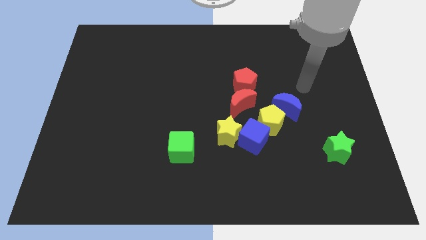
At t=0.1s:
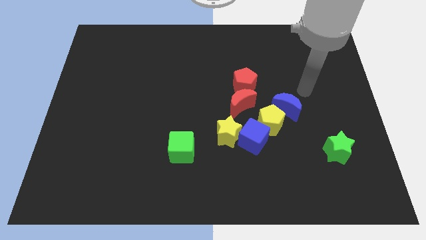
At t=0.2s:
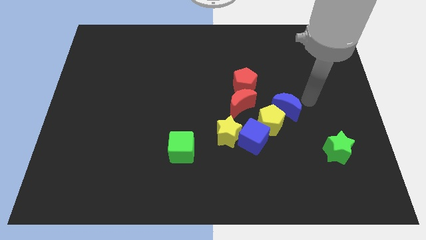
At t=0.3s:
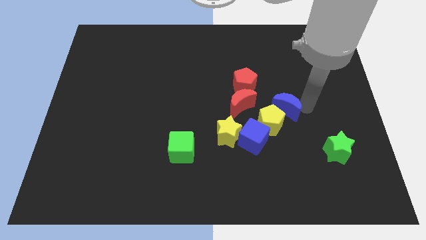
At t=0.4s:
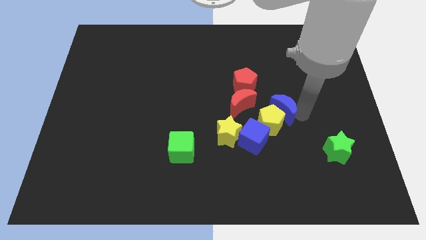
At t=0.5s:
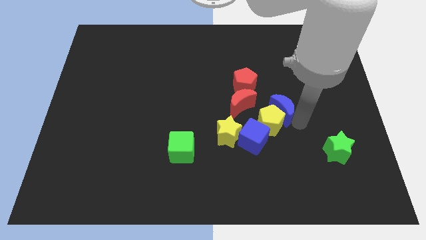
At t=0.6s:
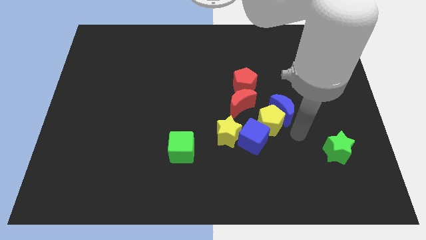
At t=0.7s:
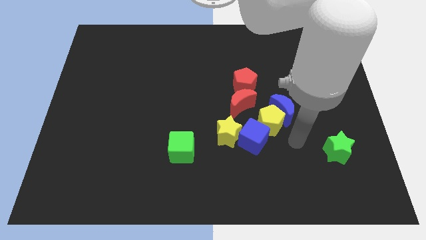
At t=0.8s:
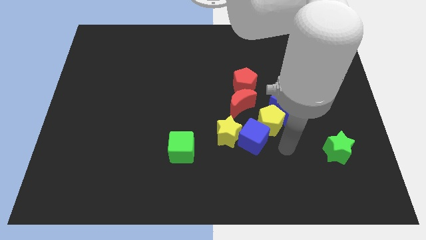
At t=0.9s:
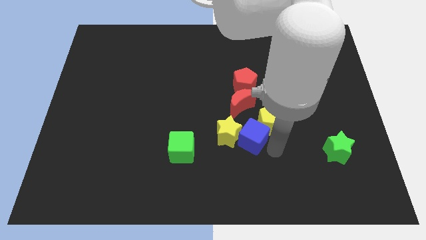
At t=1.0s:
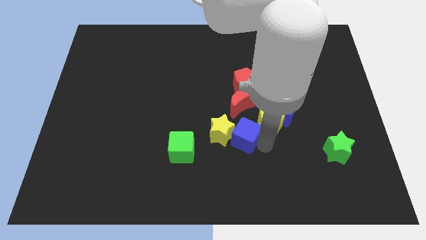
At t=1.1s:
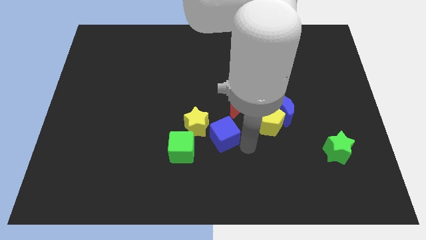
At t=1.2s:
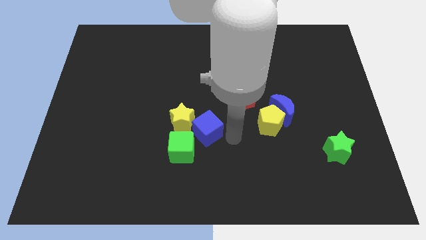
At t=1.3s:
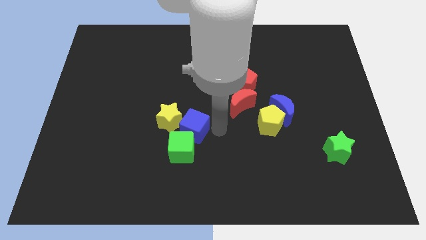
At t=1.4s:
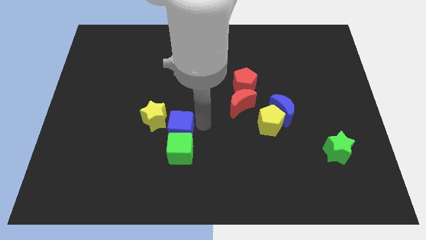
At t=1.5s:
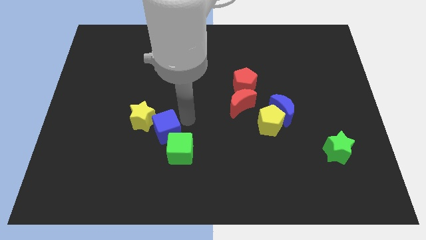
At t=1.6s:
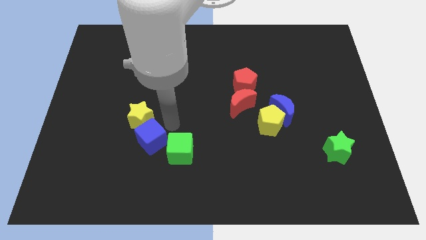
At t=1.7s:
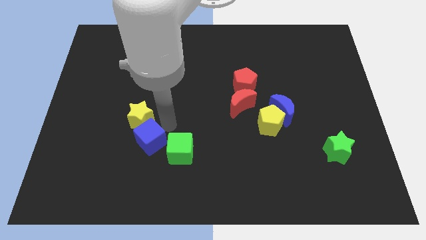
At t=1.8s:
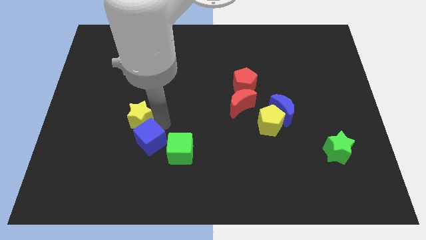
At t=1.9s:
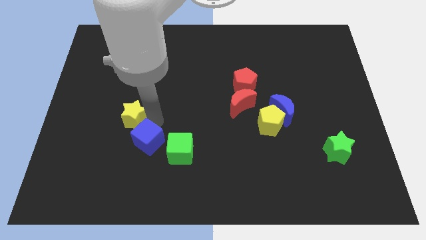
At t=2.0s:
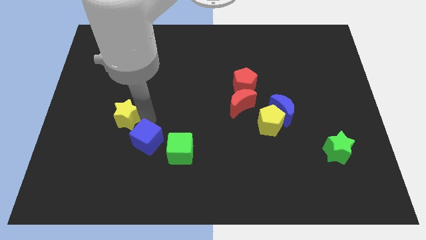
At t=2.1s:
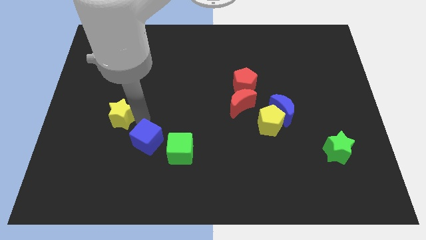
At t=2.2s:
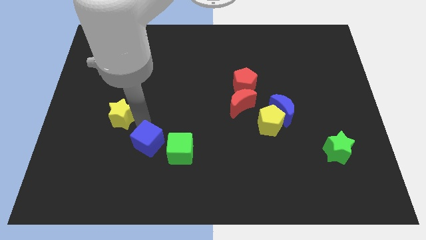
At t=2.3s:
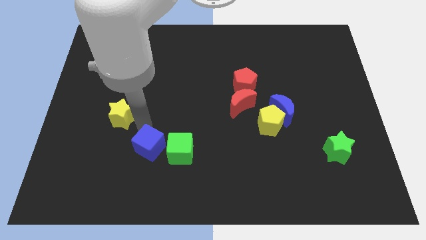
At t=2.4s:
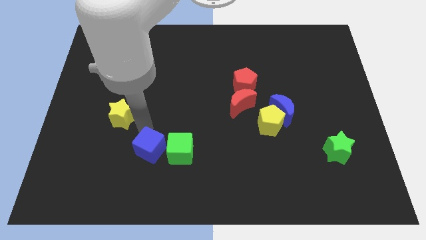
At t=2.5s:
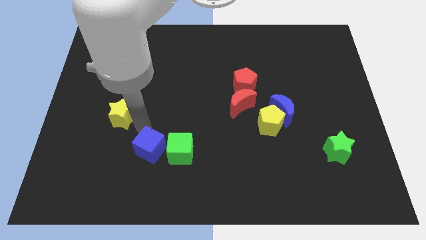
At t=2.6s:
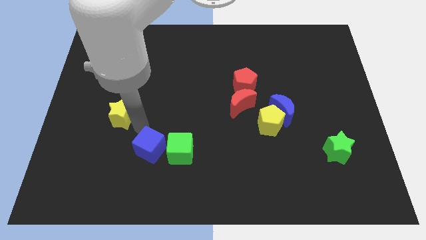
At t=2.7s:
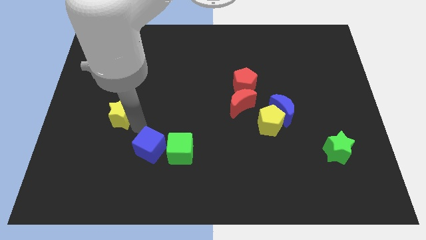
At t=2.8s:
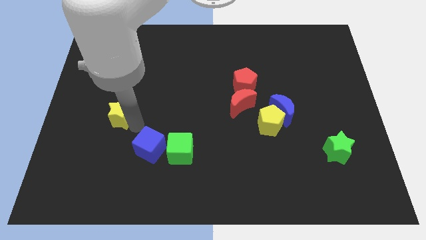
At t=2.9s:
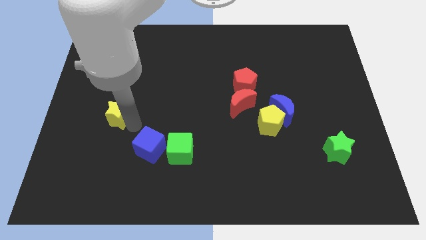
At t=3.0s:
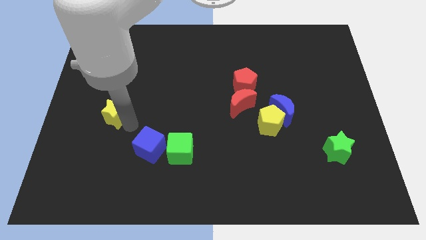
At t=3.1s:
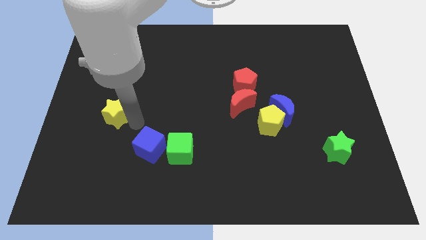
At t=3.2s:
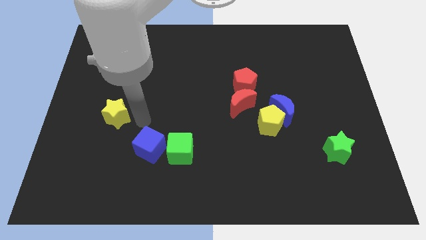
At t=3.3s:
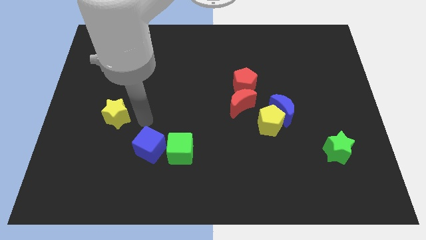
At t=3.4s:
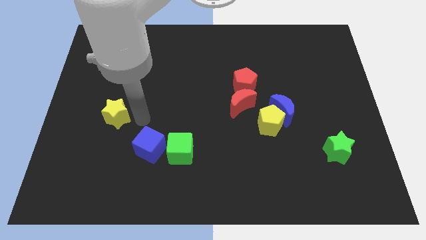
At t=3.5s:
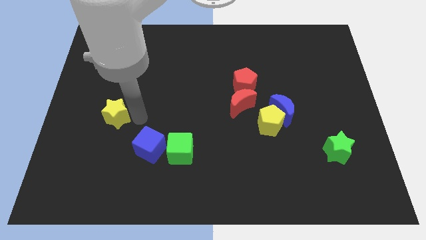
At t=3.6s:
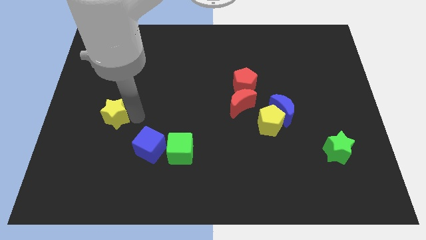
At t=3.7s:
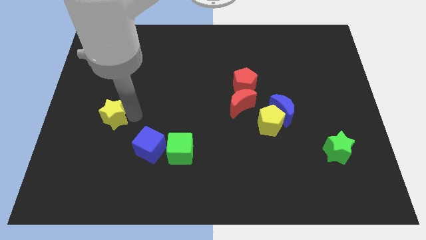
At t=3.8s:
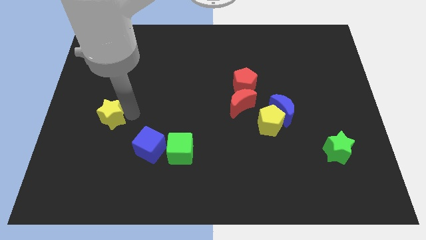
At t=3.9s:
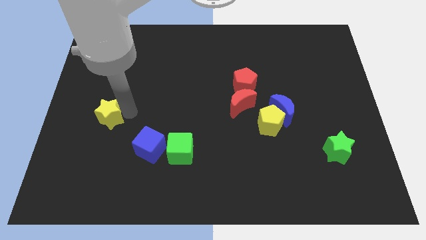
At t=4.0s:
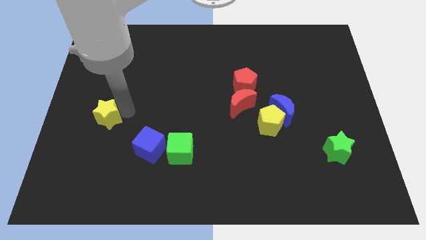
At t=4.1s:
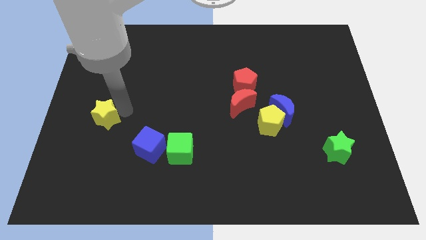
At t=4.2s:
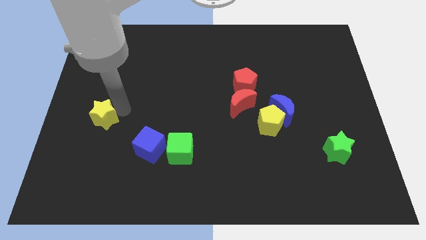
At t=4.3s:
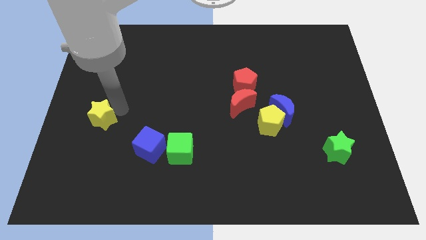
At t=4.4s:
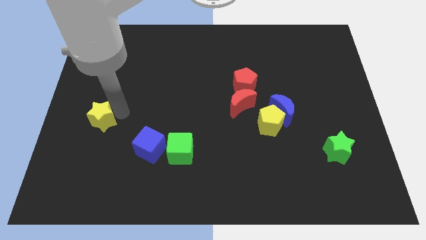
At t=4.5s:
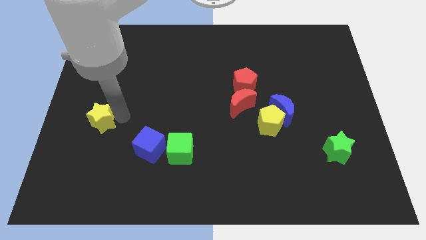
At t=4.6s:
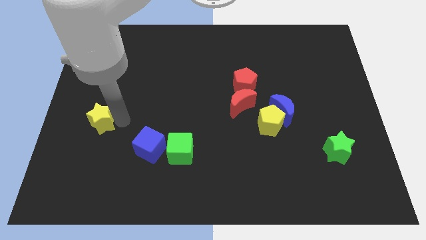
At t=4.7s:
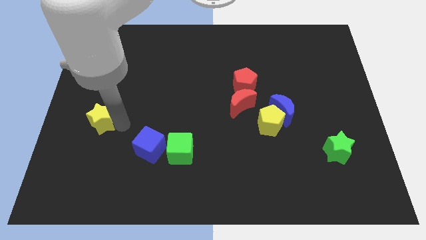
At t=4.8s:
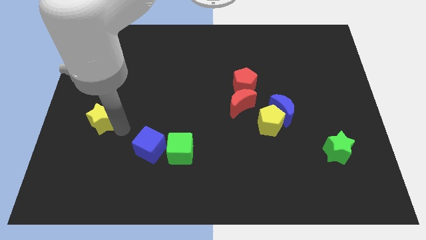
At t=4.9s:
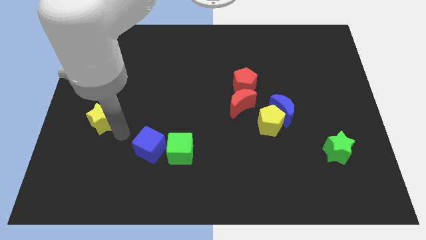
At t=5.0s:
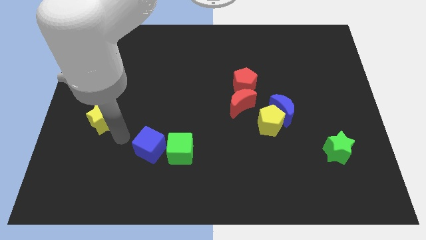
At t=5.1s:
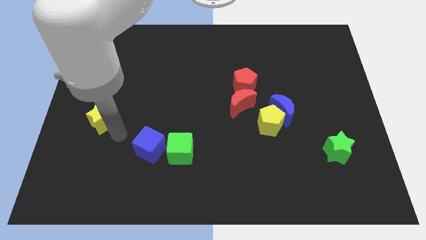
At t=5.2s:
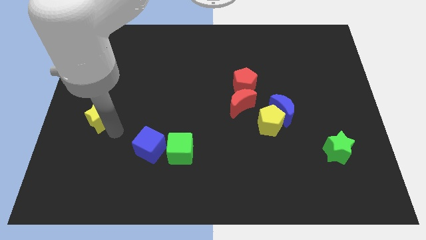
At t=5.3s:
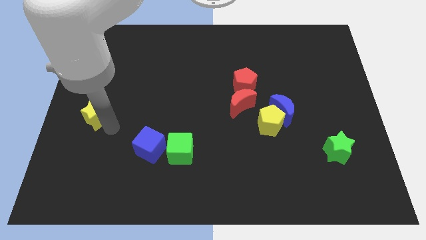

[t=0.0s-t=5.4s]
put the yellow star to the center left

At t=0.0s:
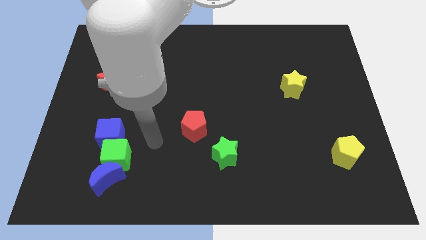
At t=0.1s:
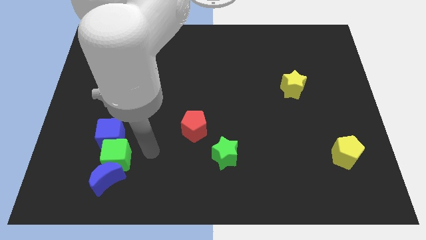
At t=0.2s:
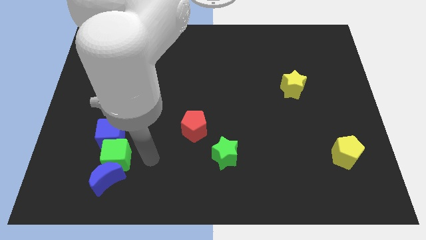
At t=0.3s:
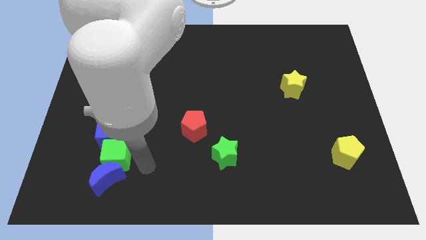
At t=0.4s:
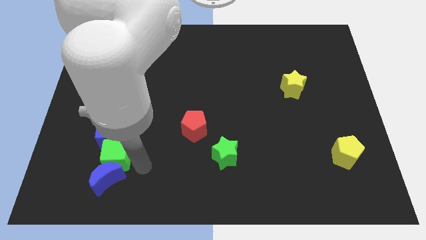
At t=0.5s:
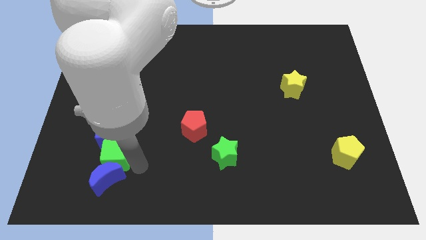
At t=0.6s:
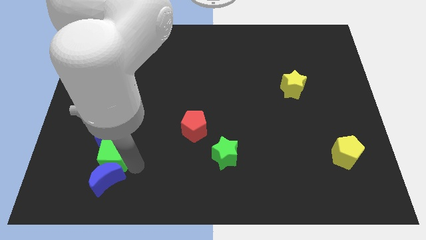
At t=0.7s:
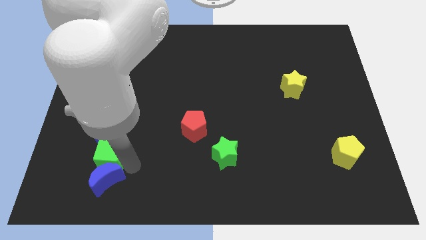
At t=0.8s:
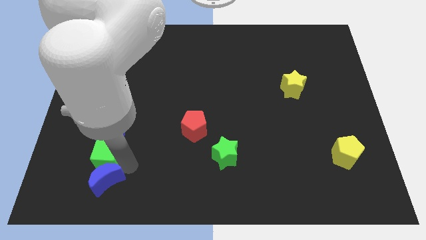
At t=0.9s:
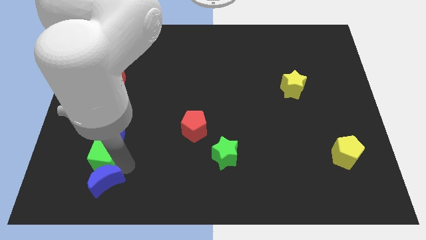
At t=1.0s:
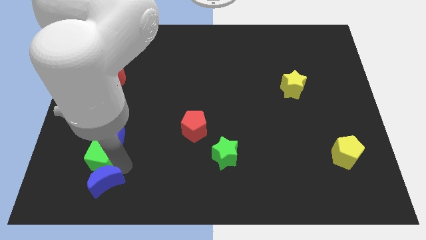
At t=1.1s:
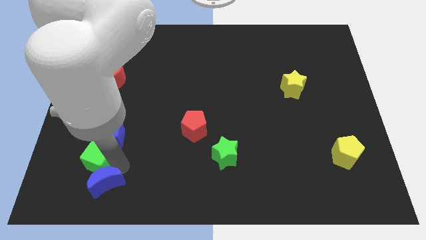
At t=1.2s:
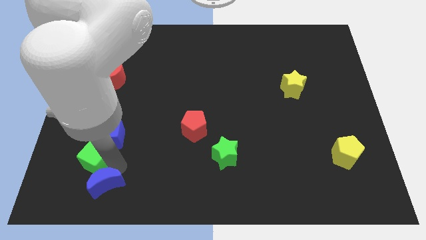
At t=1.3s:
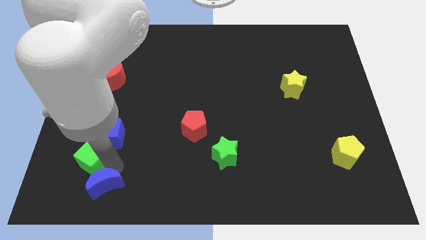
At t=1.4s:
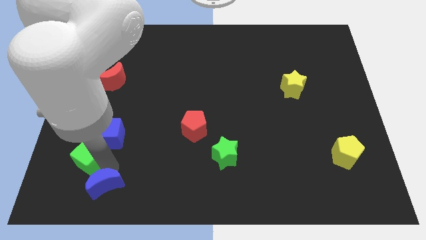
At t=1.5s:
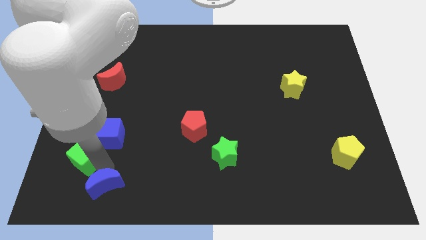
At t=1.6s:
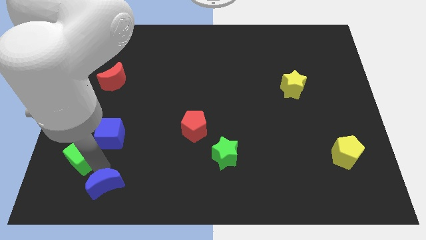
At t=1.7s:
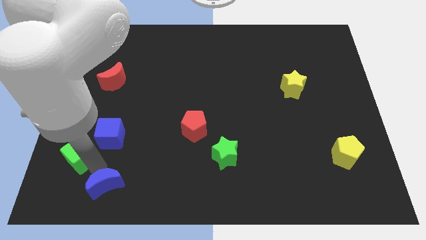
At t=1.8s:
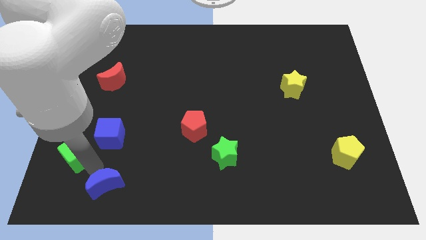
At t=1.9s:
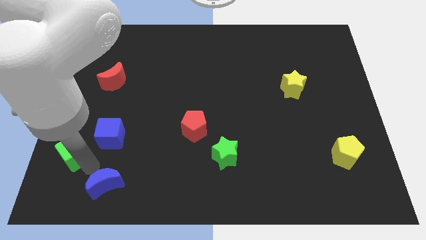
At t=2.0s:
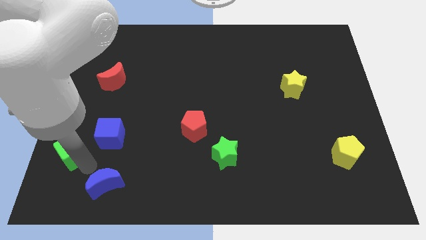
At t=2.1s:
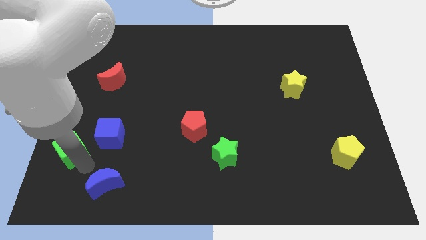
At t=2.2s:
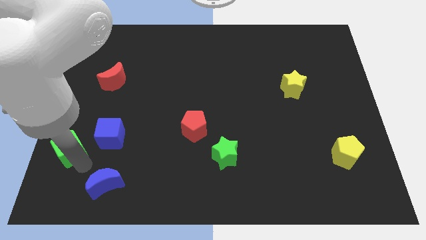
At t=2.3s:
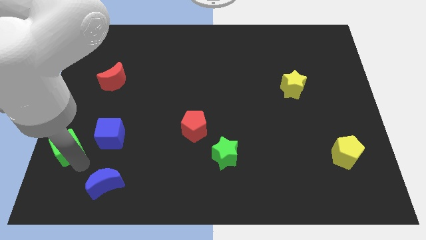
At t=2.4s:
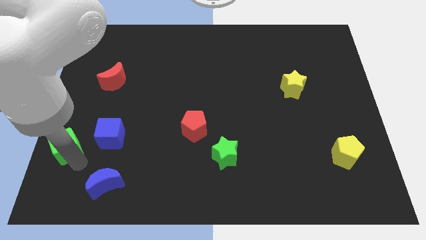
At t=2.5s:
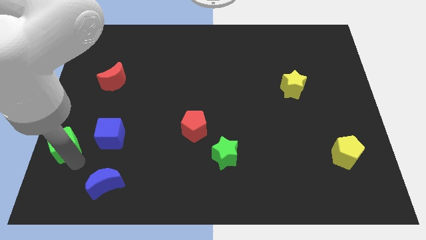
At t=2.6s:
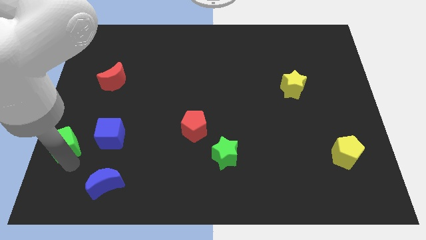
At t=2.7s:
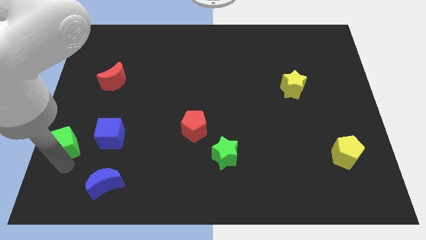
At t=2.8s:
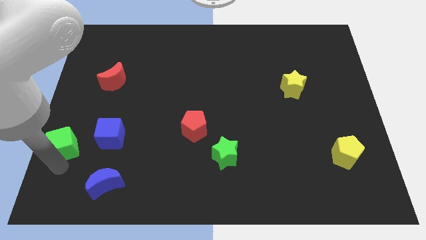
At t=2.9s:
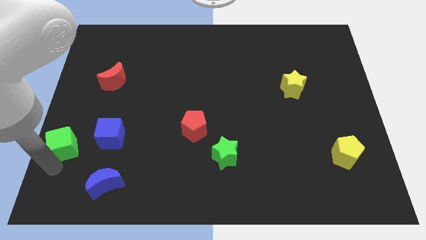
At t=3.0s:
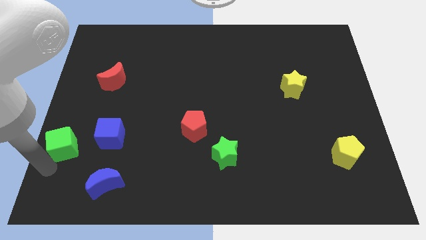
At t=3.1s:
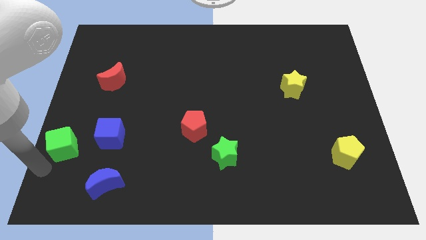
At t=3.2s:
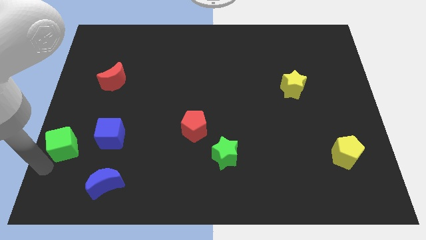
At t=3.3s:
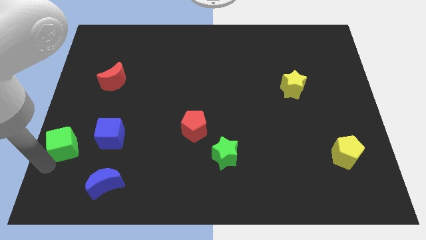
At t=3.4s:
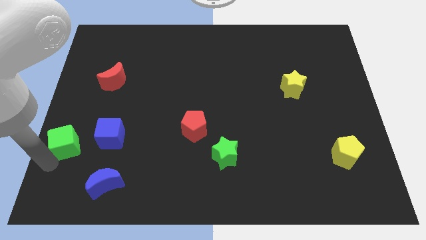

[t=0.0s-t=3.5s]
push the green cube to the left side
